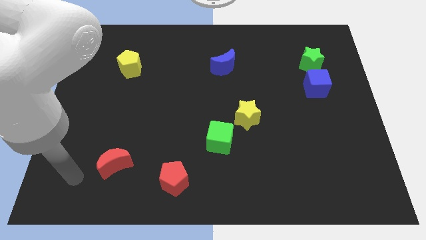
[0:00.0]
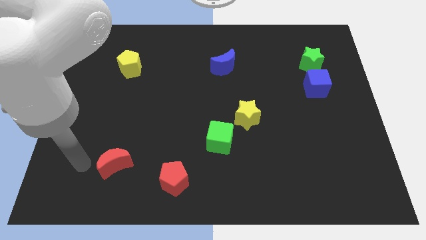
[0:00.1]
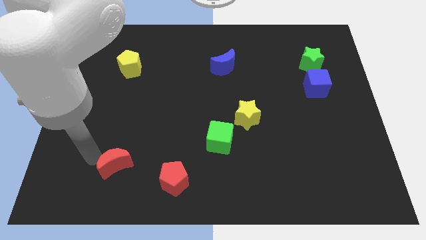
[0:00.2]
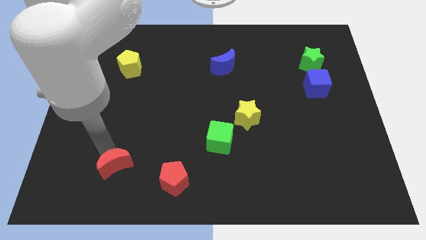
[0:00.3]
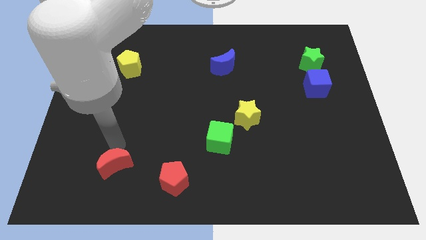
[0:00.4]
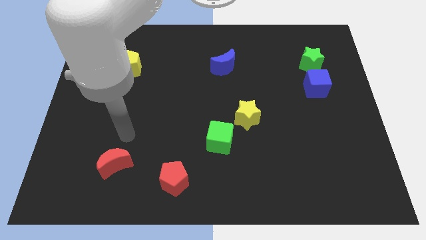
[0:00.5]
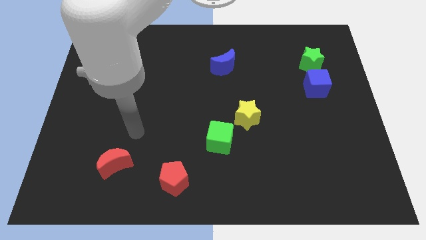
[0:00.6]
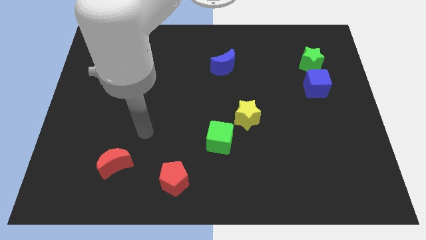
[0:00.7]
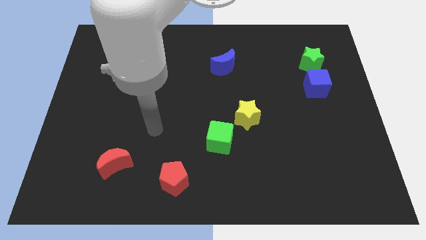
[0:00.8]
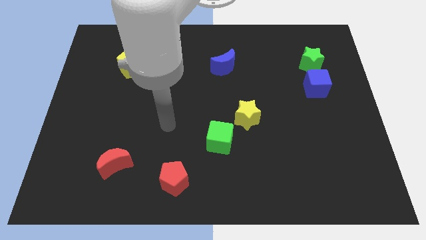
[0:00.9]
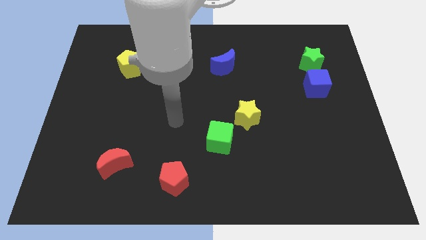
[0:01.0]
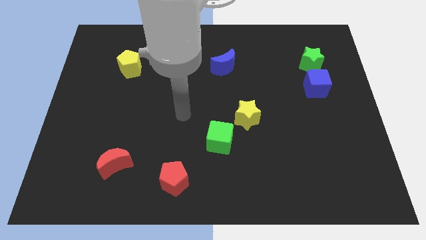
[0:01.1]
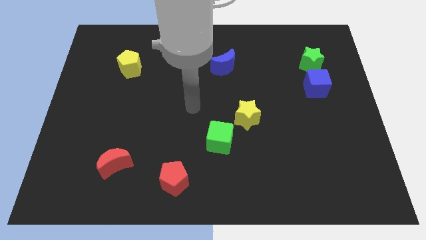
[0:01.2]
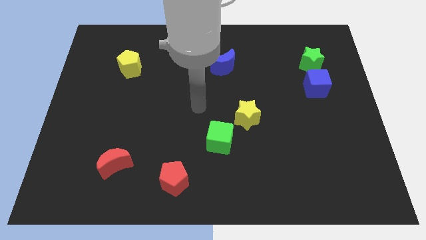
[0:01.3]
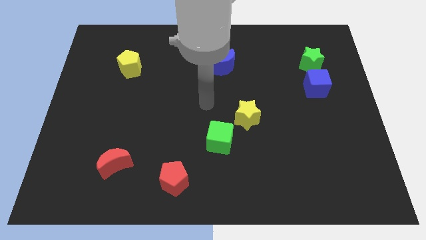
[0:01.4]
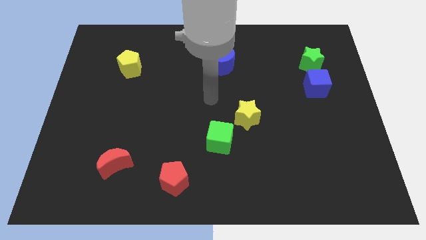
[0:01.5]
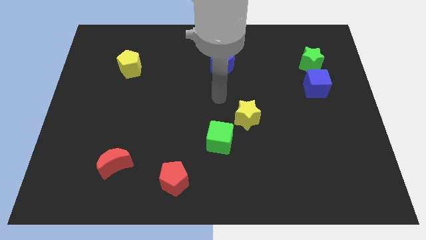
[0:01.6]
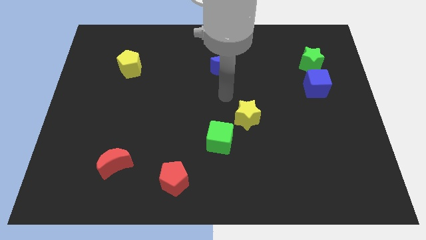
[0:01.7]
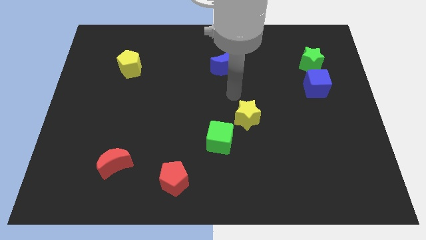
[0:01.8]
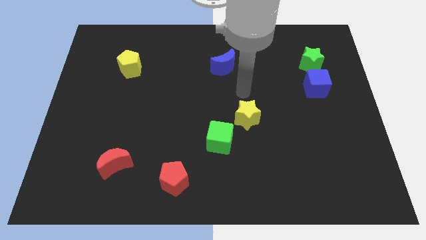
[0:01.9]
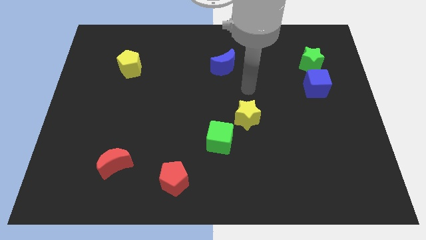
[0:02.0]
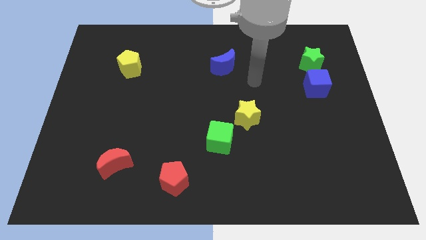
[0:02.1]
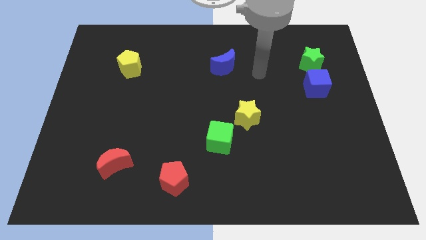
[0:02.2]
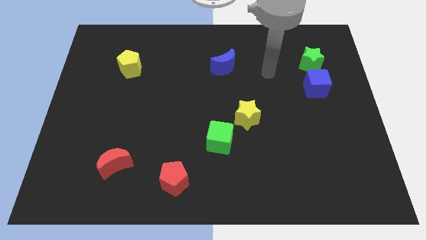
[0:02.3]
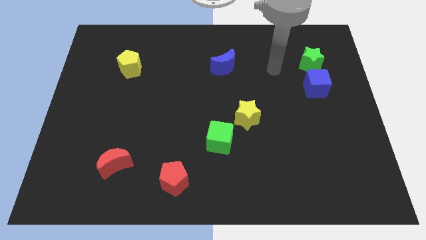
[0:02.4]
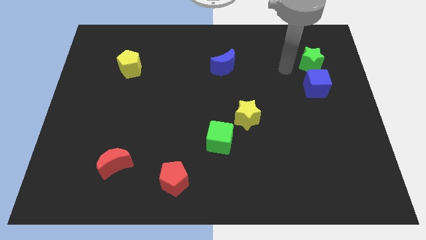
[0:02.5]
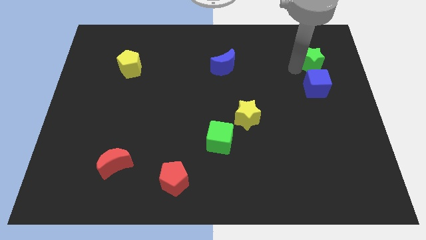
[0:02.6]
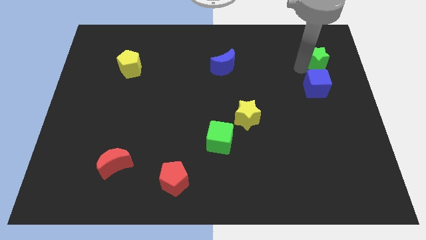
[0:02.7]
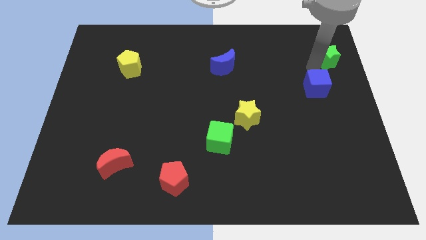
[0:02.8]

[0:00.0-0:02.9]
move the blue cube away from the green star

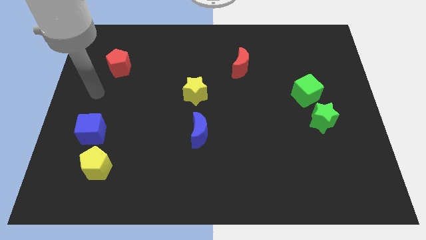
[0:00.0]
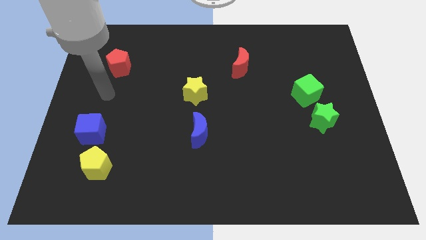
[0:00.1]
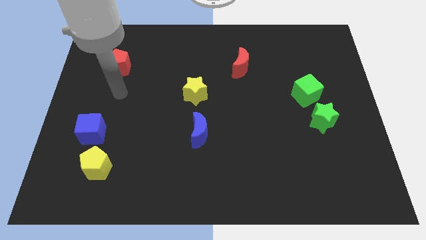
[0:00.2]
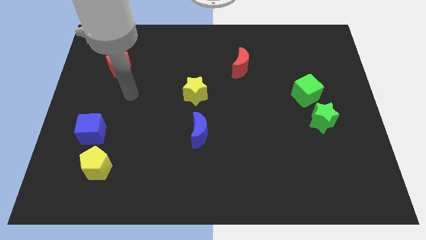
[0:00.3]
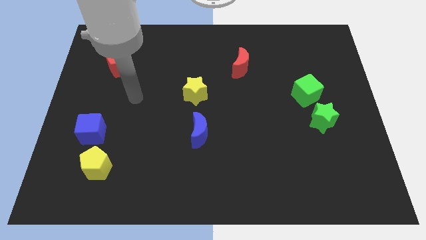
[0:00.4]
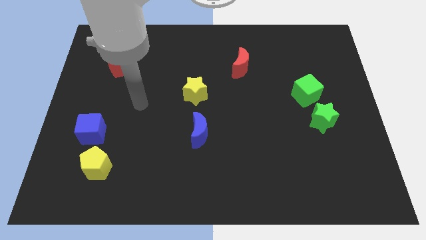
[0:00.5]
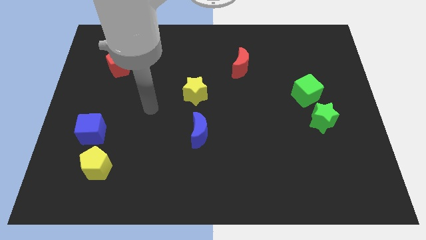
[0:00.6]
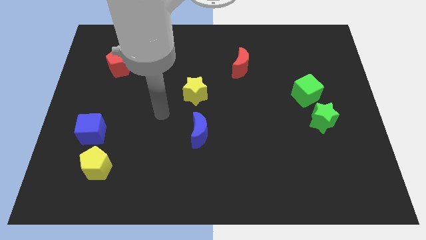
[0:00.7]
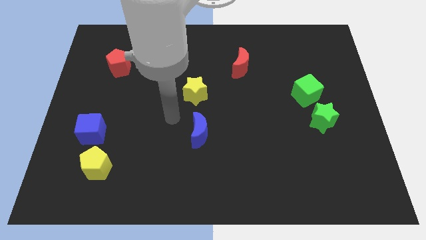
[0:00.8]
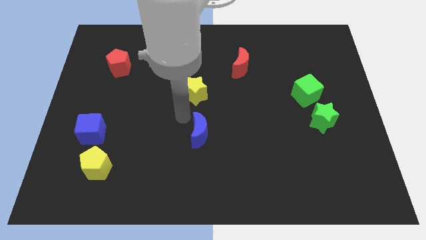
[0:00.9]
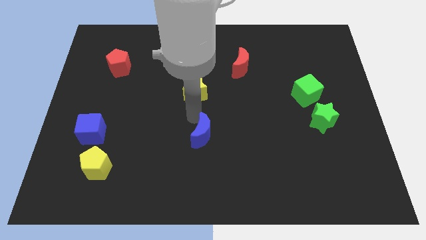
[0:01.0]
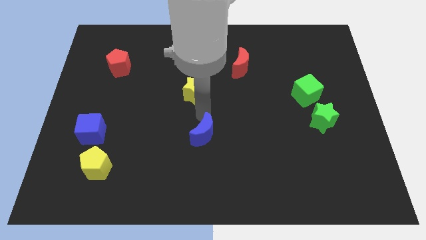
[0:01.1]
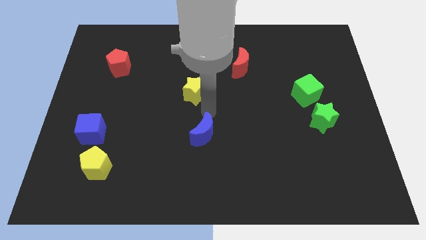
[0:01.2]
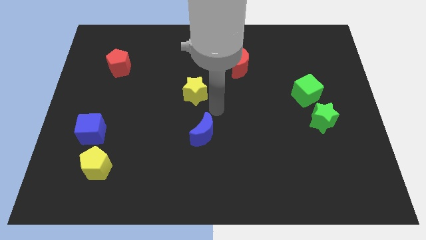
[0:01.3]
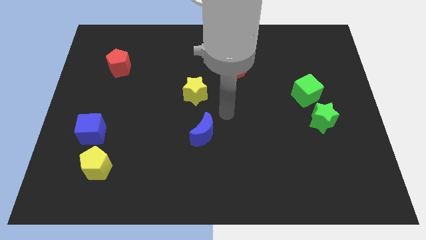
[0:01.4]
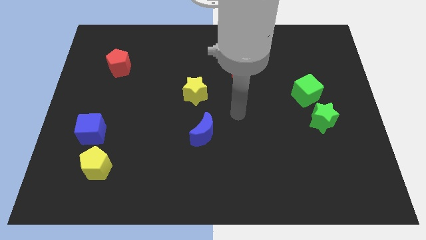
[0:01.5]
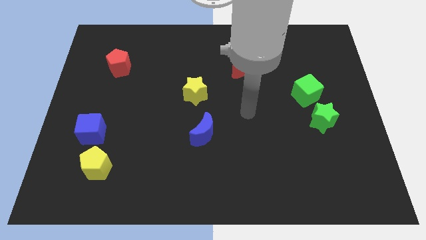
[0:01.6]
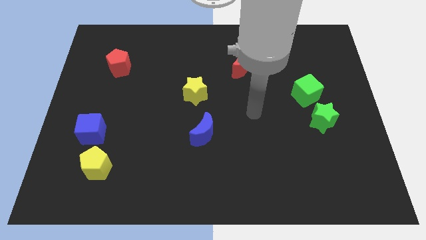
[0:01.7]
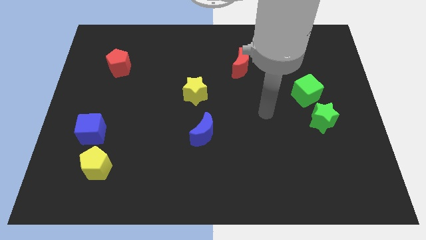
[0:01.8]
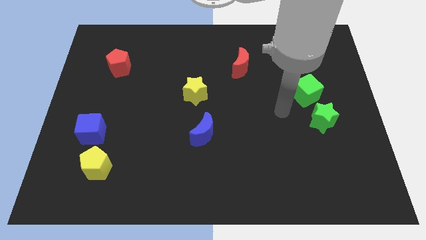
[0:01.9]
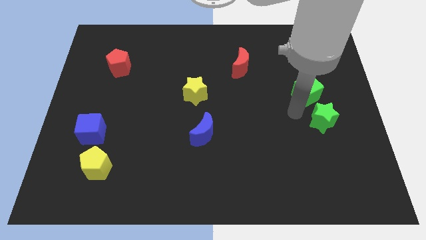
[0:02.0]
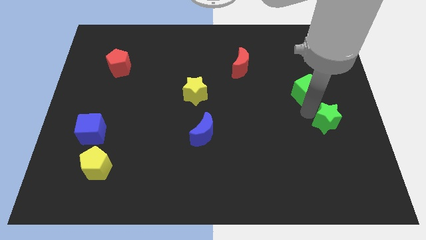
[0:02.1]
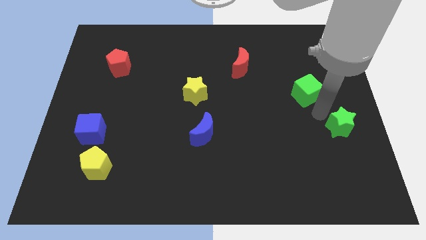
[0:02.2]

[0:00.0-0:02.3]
pull the green cube apart from the green star

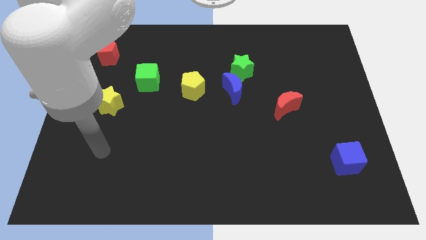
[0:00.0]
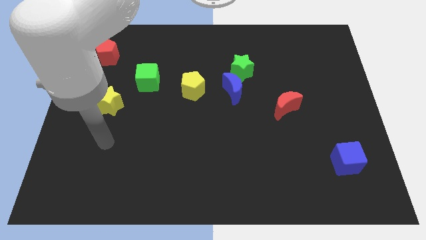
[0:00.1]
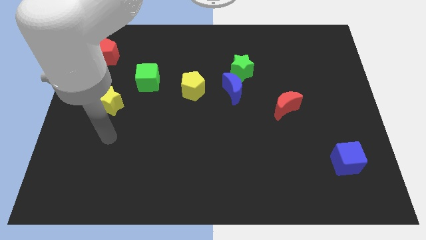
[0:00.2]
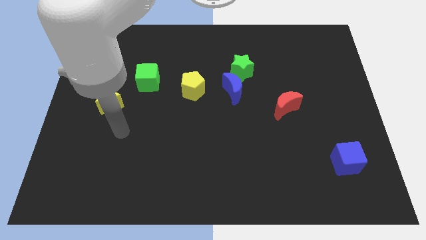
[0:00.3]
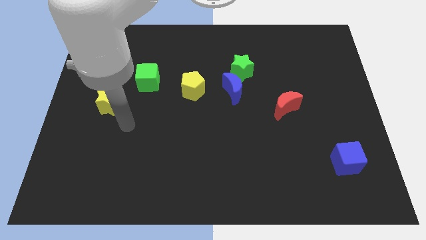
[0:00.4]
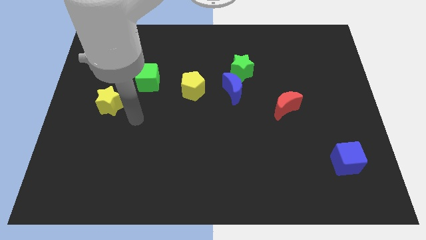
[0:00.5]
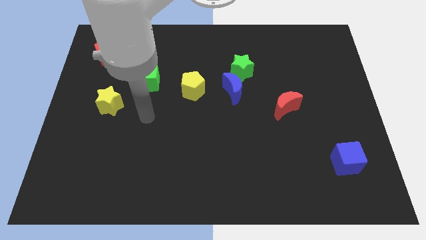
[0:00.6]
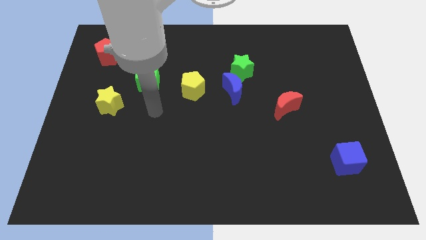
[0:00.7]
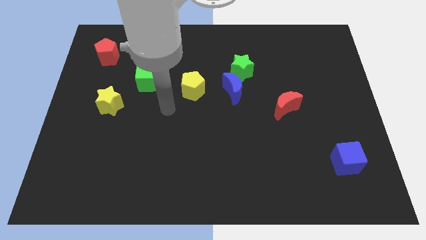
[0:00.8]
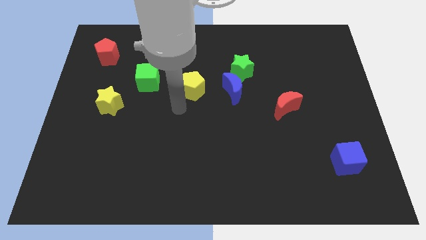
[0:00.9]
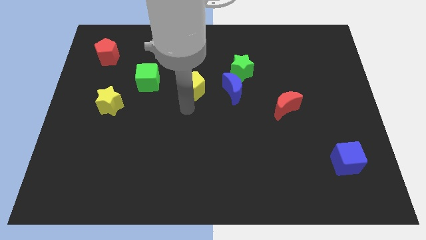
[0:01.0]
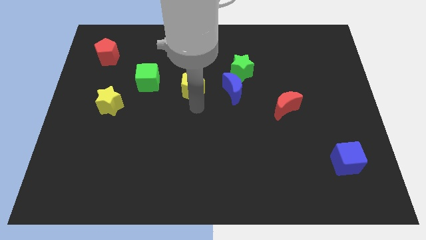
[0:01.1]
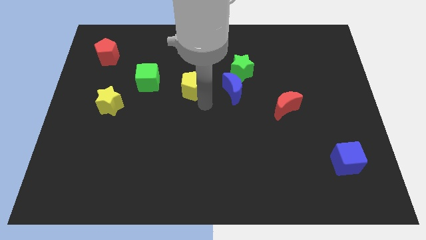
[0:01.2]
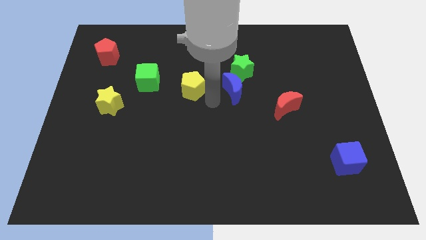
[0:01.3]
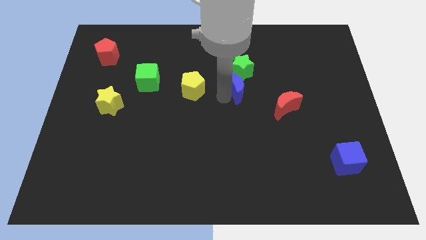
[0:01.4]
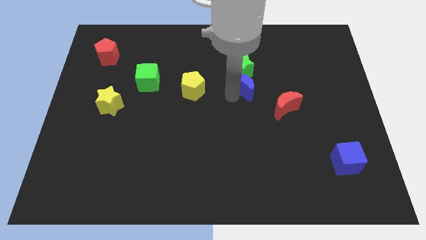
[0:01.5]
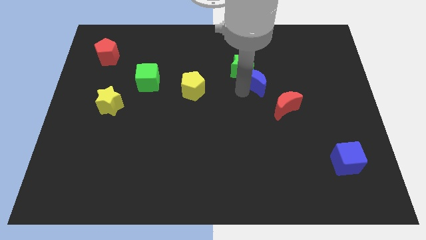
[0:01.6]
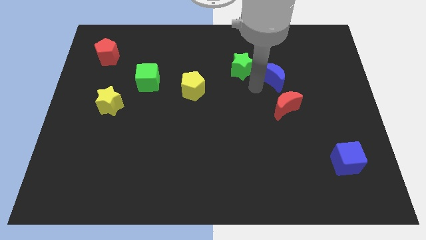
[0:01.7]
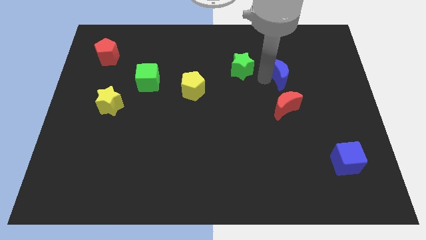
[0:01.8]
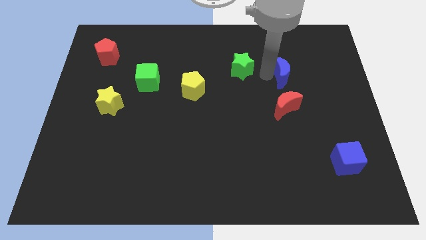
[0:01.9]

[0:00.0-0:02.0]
pull the green star apart from the blue moon

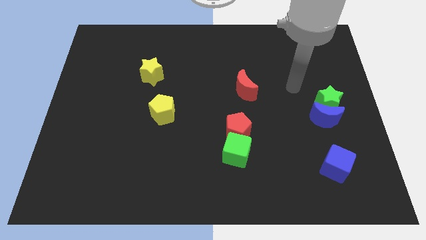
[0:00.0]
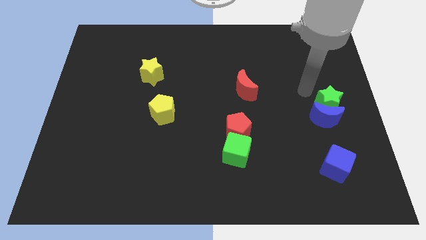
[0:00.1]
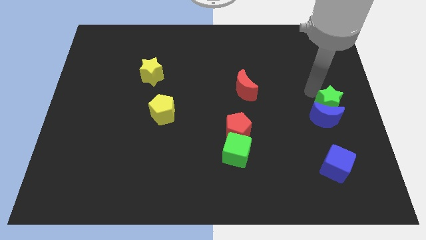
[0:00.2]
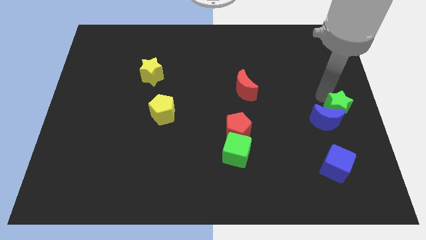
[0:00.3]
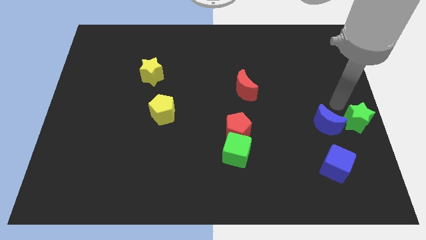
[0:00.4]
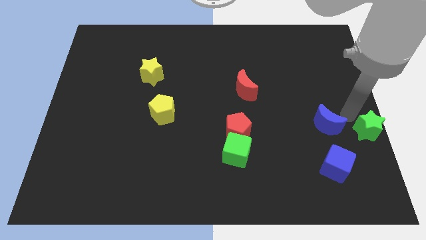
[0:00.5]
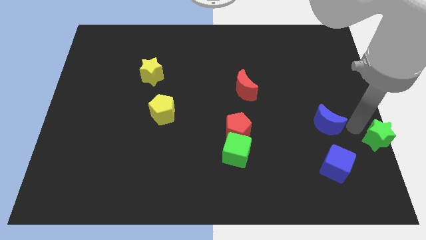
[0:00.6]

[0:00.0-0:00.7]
pull the blue moon apart from the green star

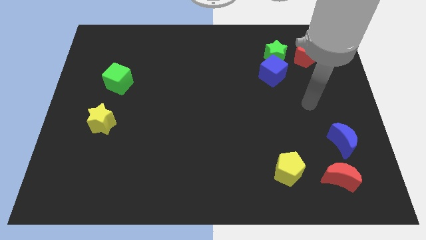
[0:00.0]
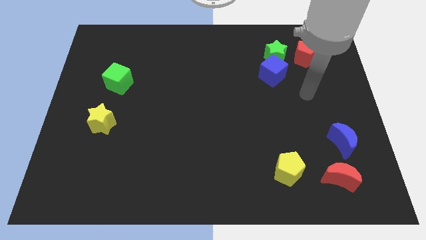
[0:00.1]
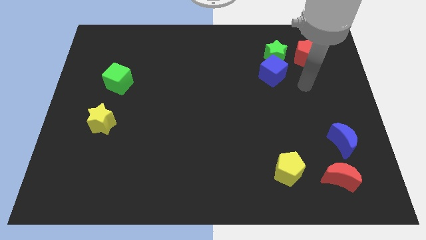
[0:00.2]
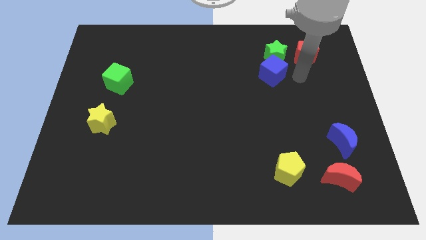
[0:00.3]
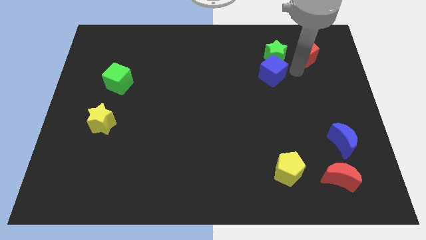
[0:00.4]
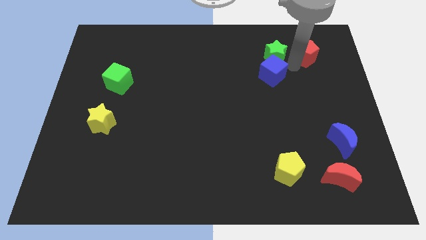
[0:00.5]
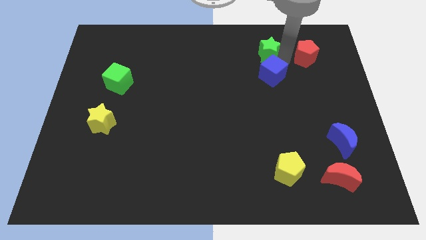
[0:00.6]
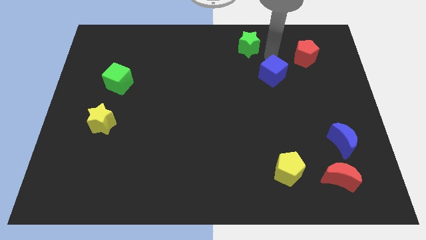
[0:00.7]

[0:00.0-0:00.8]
separate the blue cube from the green star

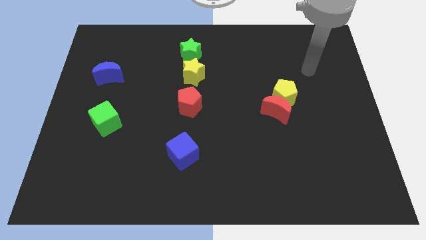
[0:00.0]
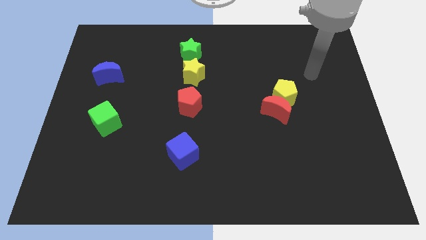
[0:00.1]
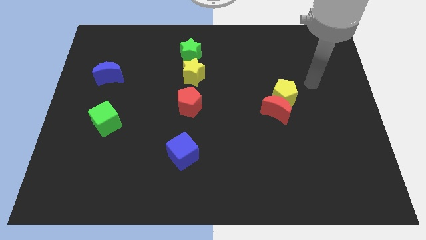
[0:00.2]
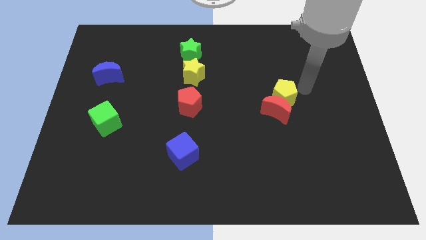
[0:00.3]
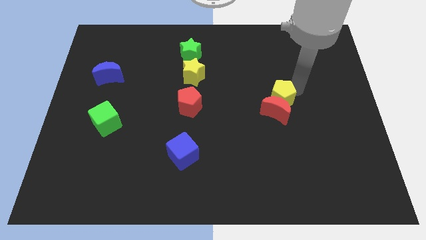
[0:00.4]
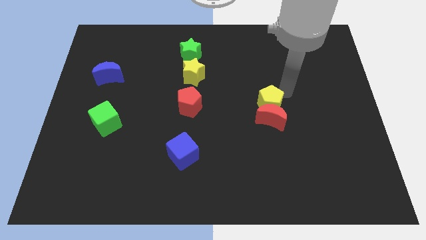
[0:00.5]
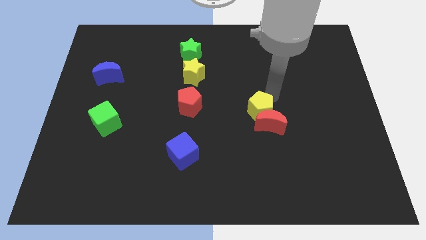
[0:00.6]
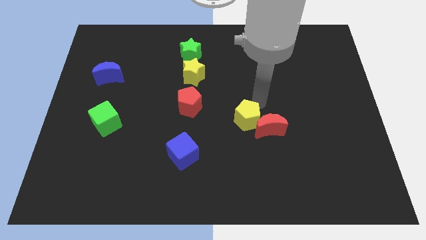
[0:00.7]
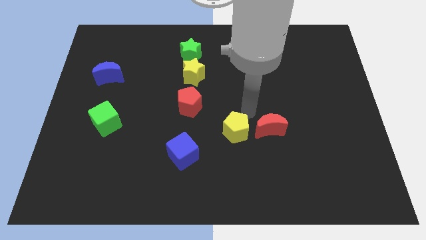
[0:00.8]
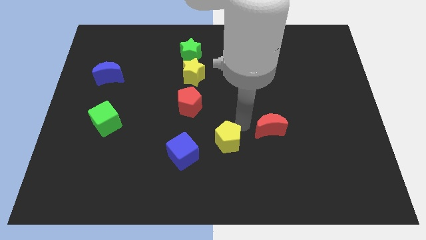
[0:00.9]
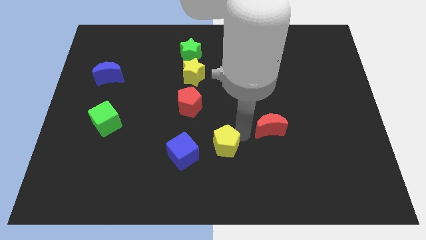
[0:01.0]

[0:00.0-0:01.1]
pull the red moon apart from the yellow pentagon
